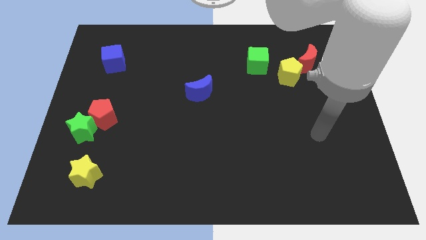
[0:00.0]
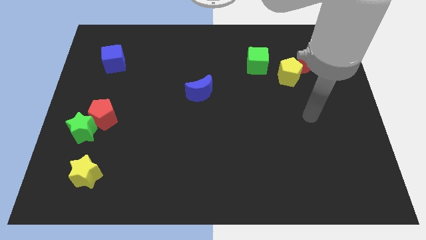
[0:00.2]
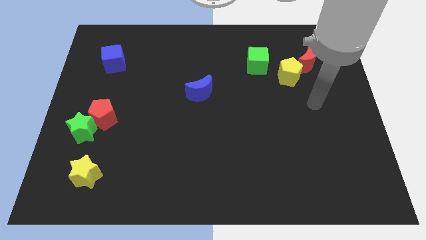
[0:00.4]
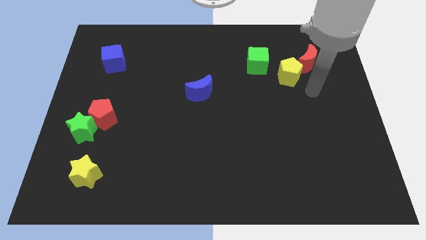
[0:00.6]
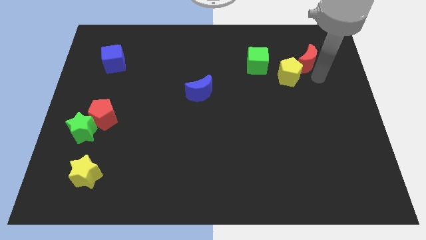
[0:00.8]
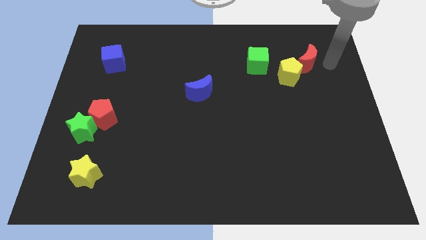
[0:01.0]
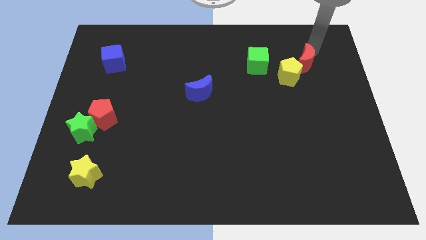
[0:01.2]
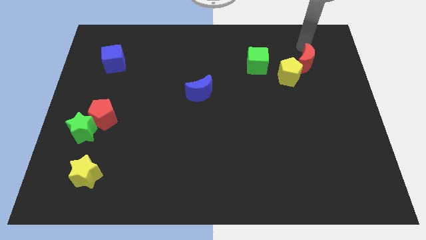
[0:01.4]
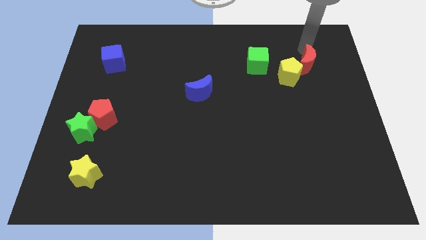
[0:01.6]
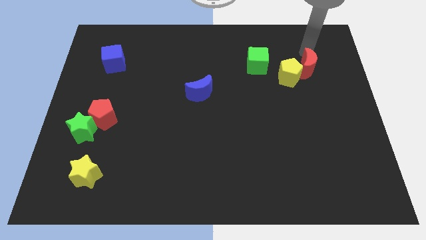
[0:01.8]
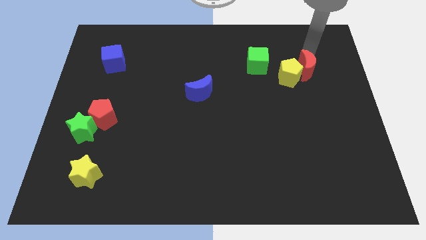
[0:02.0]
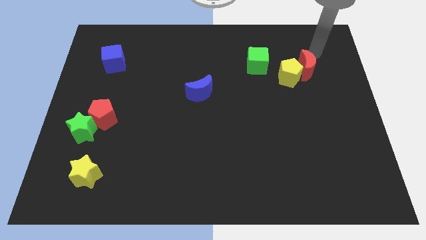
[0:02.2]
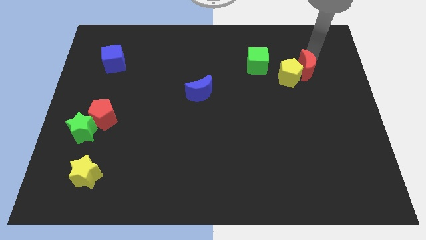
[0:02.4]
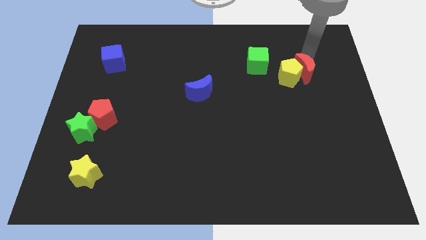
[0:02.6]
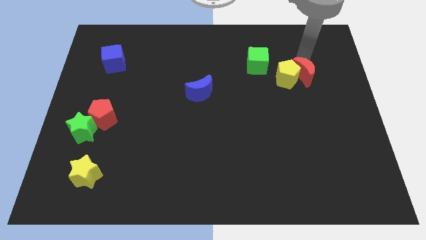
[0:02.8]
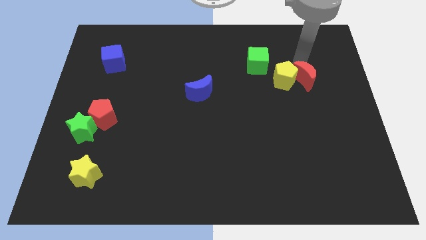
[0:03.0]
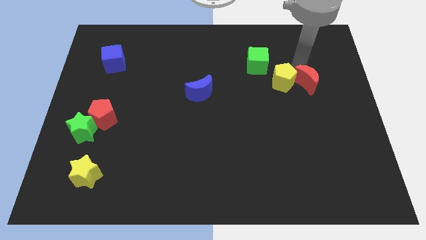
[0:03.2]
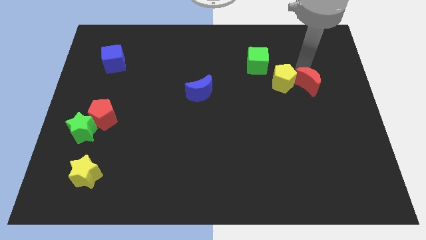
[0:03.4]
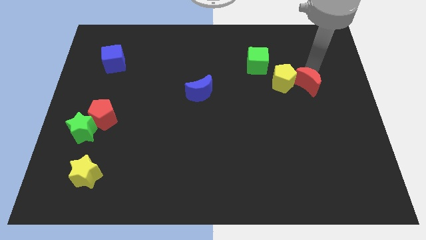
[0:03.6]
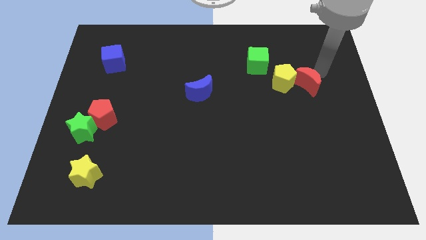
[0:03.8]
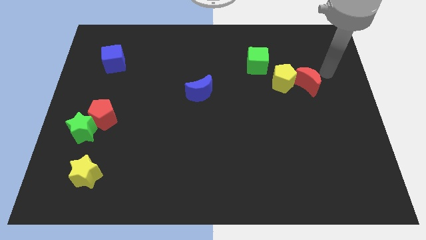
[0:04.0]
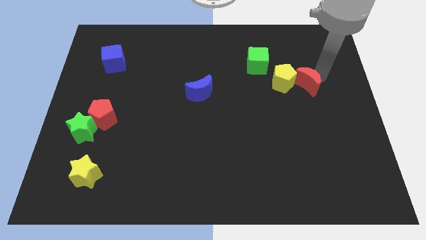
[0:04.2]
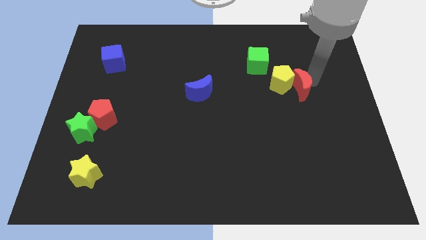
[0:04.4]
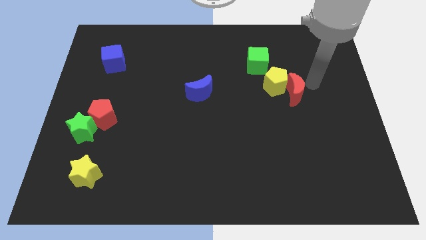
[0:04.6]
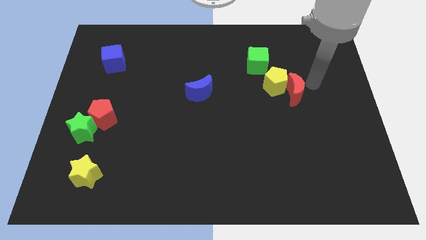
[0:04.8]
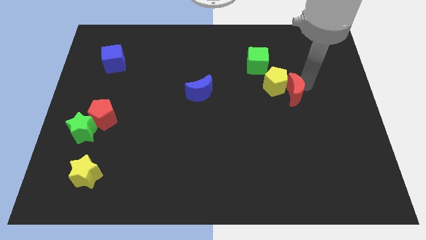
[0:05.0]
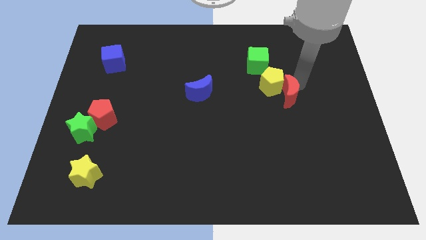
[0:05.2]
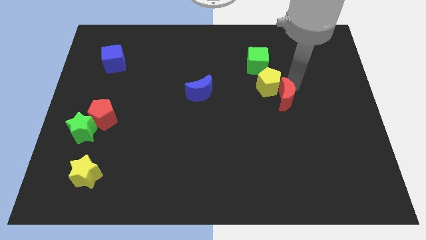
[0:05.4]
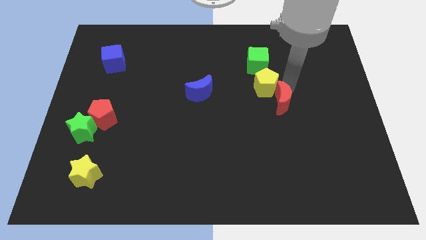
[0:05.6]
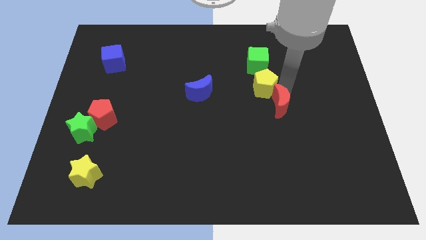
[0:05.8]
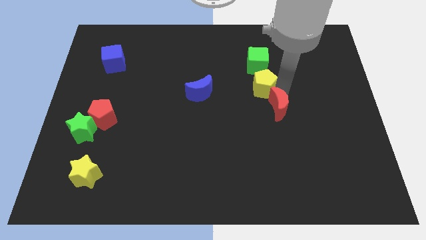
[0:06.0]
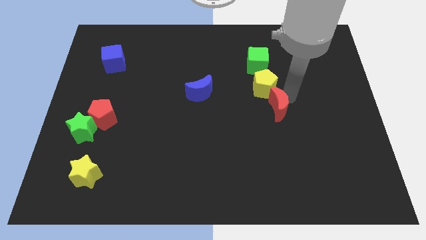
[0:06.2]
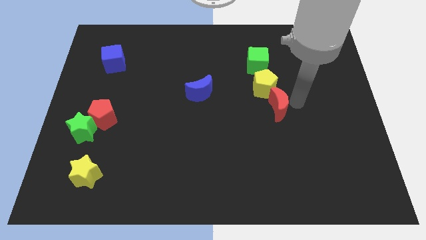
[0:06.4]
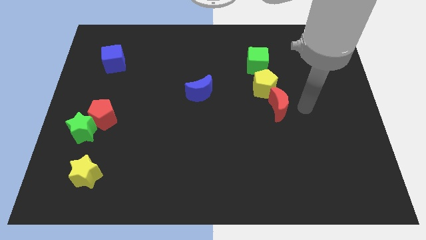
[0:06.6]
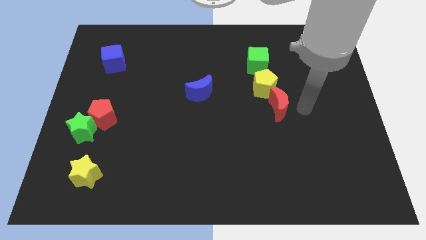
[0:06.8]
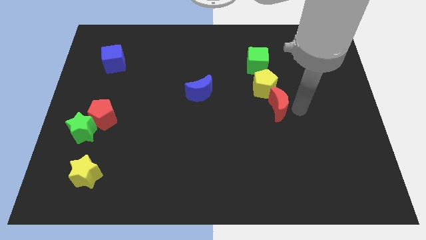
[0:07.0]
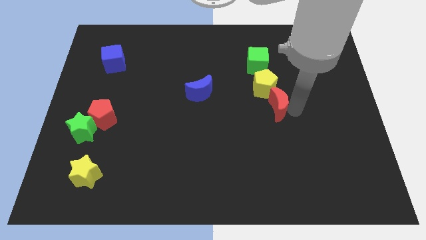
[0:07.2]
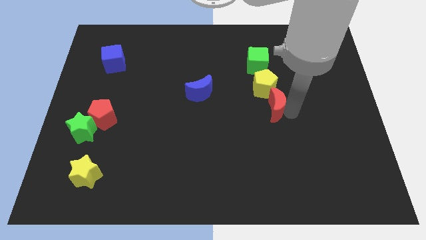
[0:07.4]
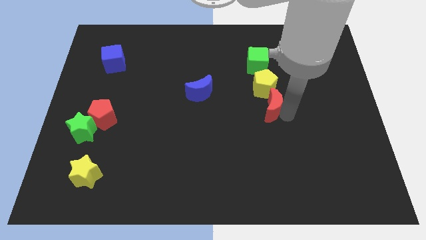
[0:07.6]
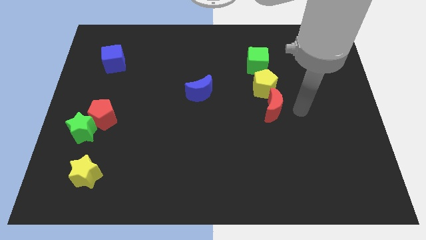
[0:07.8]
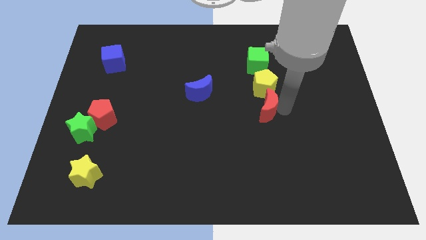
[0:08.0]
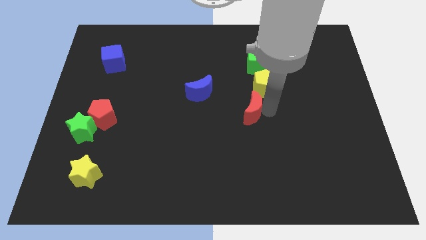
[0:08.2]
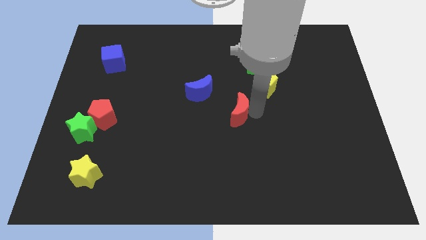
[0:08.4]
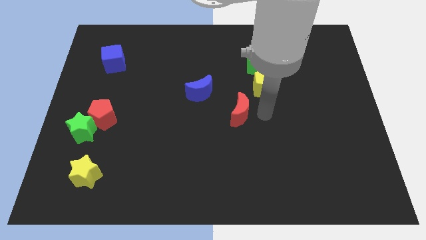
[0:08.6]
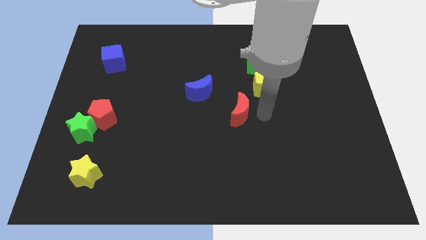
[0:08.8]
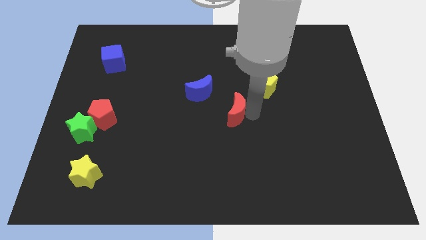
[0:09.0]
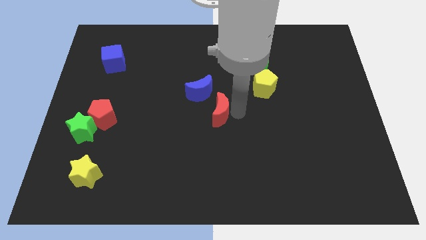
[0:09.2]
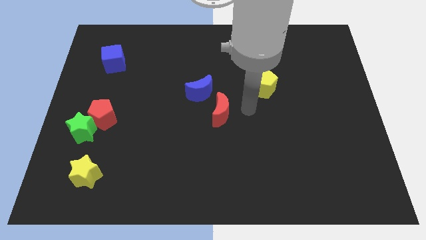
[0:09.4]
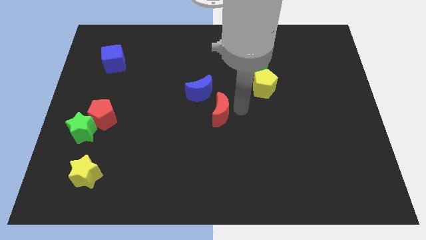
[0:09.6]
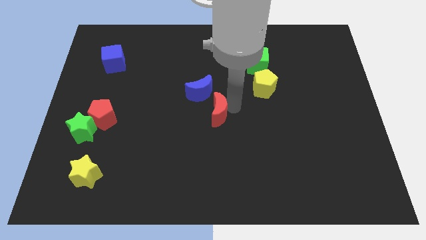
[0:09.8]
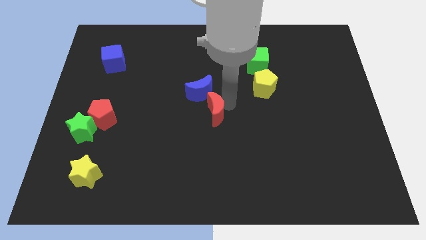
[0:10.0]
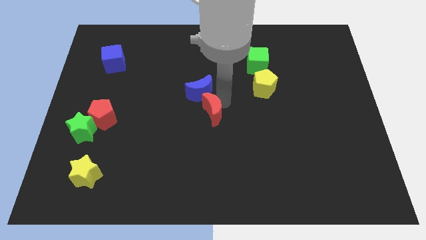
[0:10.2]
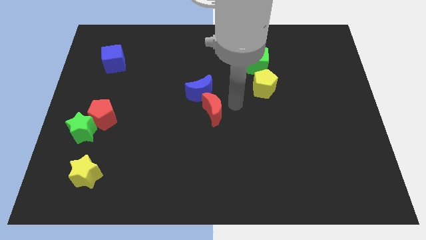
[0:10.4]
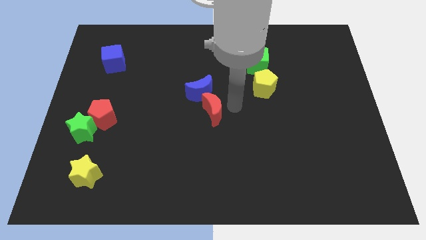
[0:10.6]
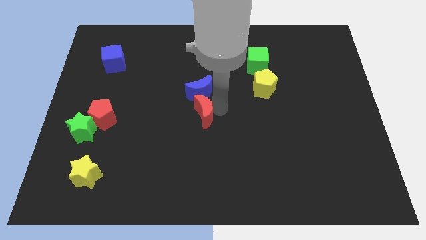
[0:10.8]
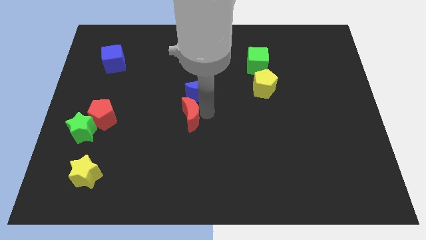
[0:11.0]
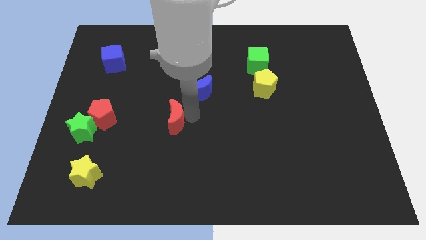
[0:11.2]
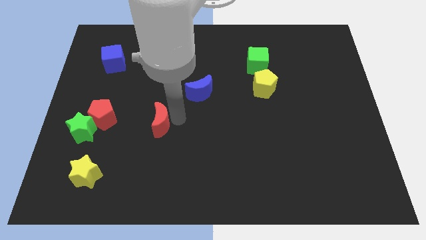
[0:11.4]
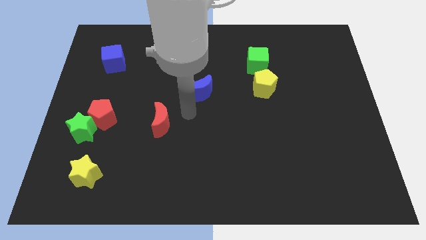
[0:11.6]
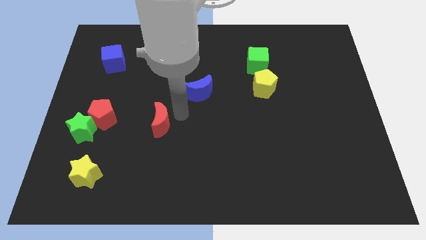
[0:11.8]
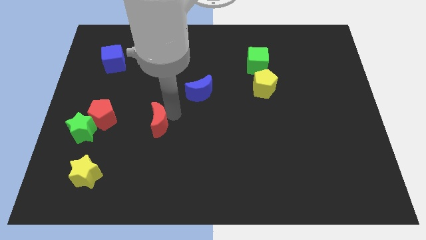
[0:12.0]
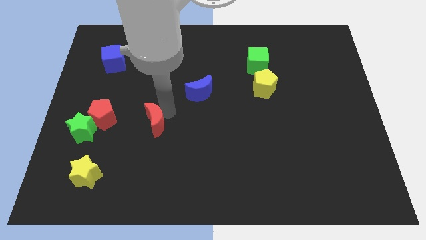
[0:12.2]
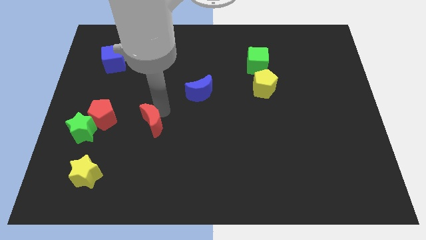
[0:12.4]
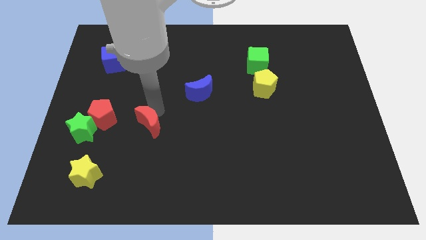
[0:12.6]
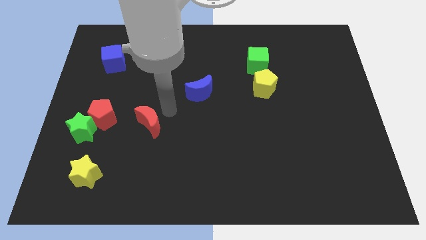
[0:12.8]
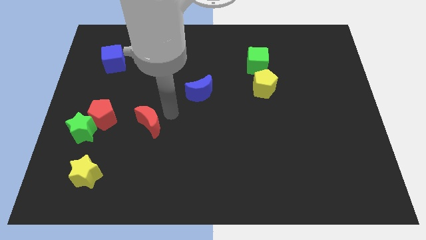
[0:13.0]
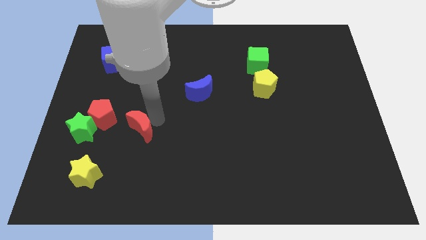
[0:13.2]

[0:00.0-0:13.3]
slide the red moon diagonally down and to the right of the red pentagon
